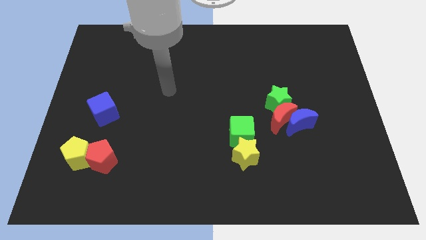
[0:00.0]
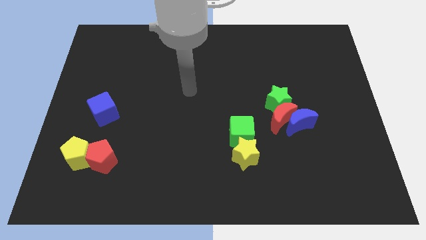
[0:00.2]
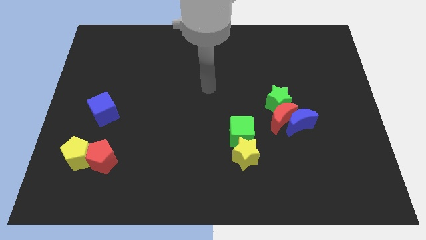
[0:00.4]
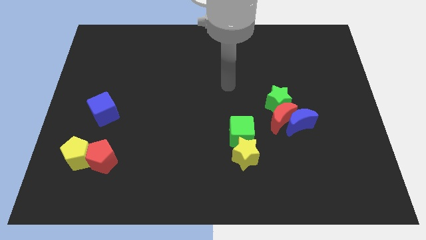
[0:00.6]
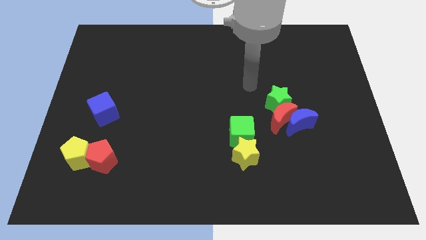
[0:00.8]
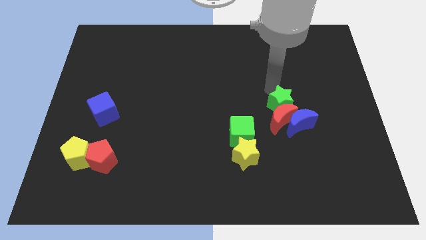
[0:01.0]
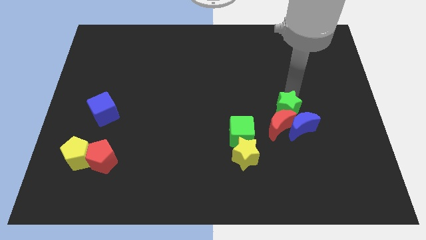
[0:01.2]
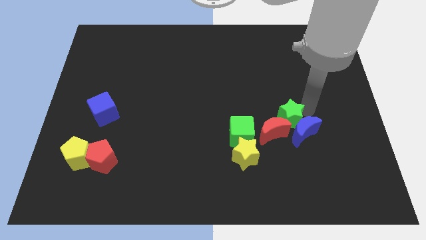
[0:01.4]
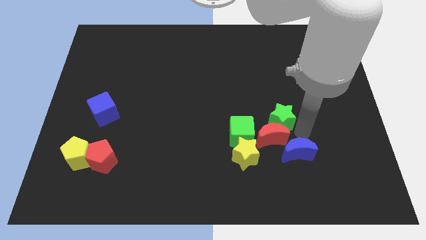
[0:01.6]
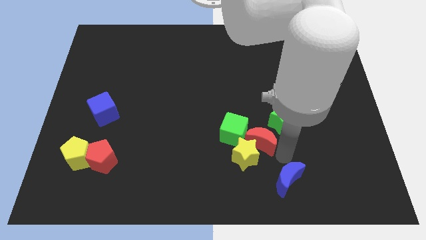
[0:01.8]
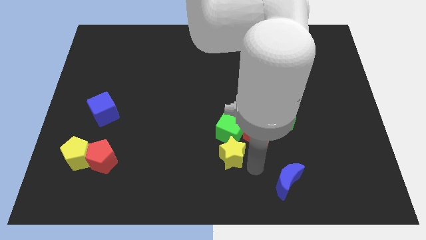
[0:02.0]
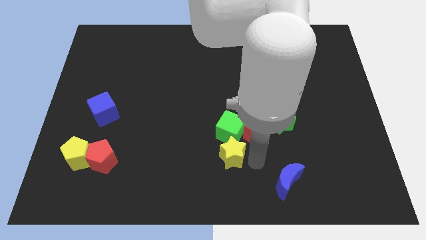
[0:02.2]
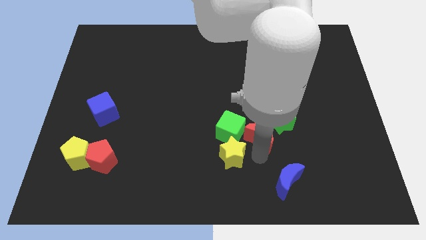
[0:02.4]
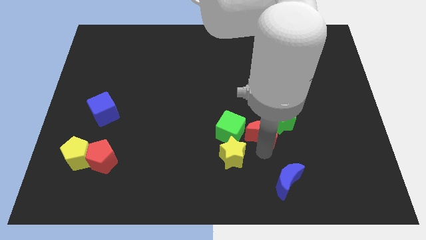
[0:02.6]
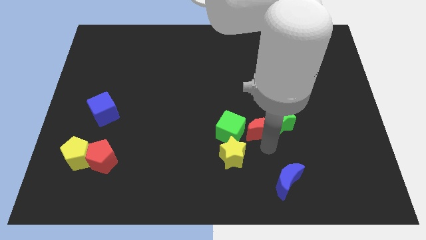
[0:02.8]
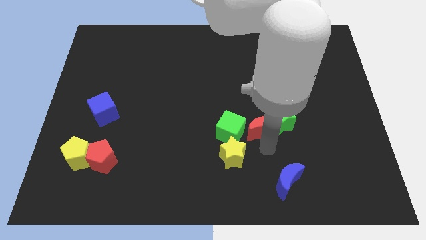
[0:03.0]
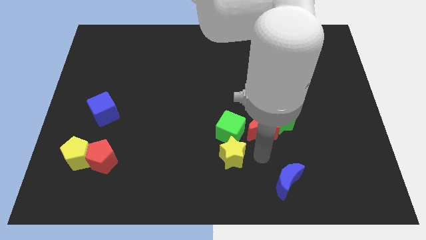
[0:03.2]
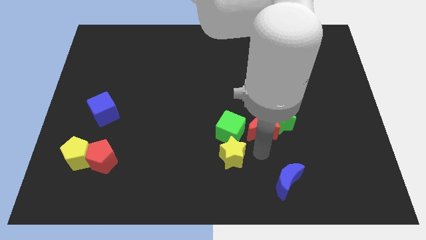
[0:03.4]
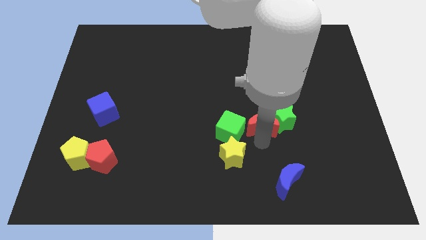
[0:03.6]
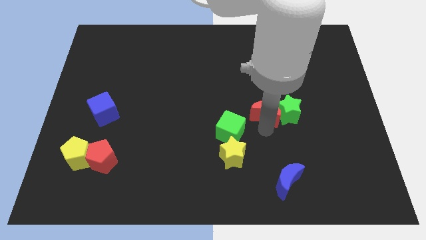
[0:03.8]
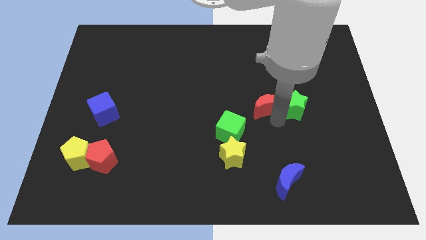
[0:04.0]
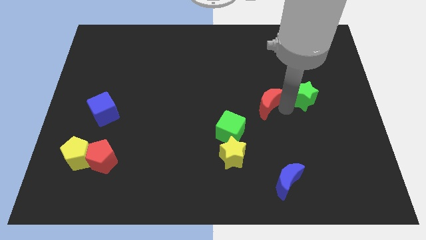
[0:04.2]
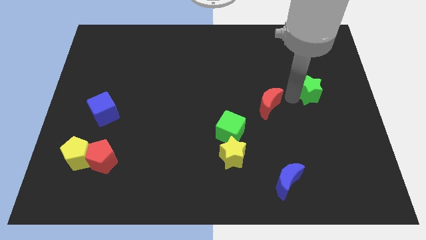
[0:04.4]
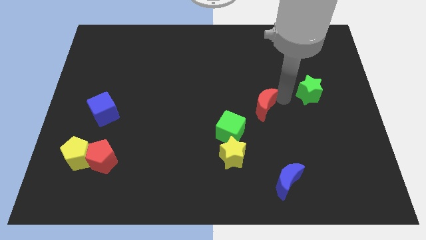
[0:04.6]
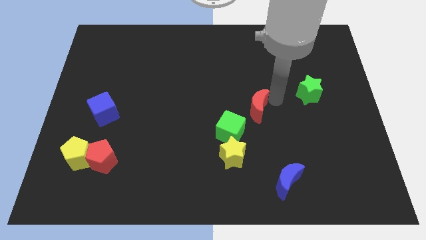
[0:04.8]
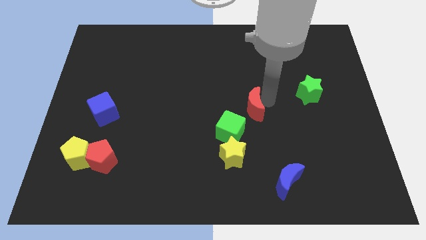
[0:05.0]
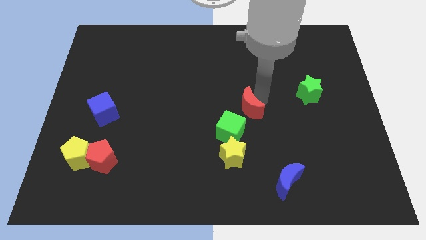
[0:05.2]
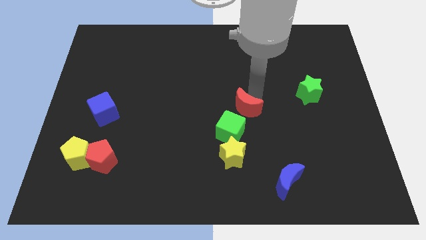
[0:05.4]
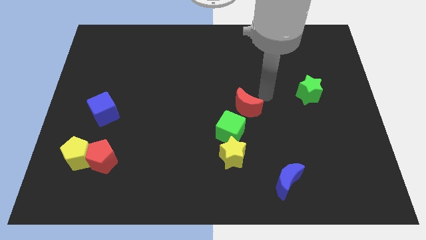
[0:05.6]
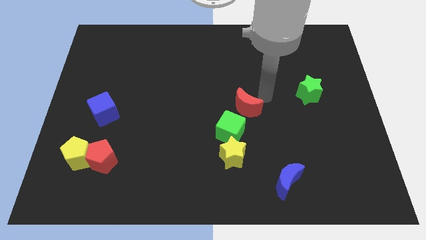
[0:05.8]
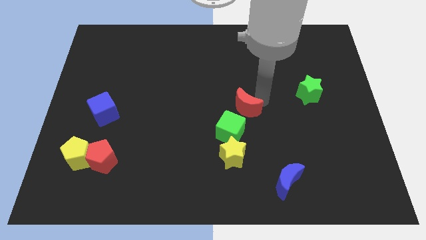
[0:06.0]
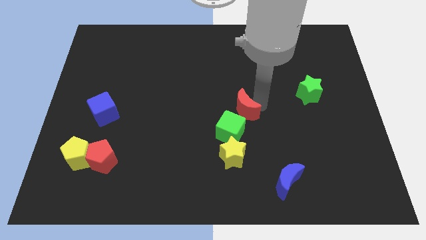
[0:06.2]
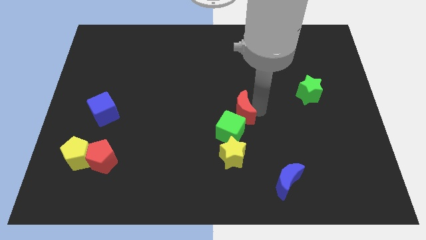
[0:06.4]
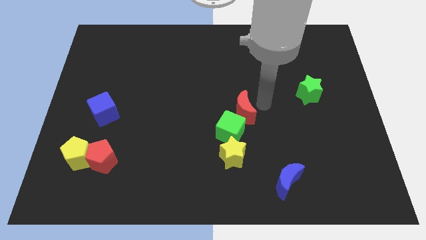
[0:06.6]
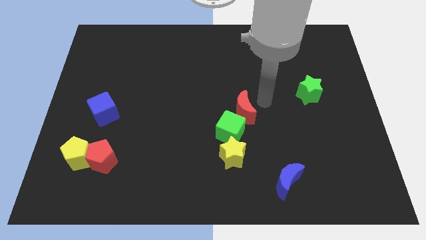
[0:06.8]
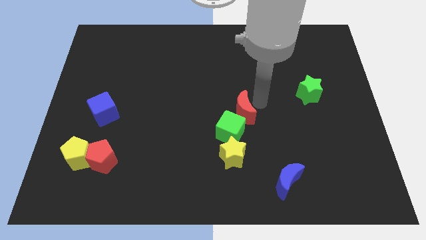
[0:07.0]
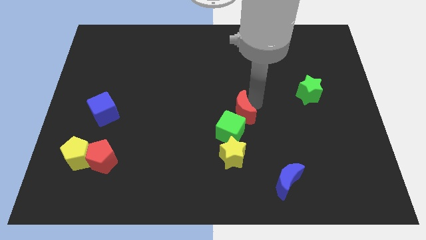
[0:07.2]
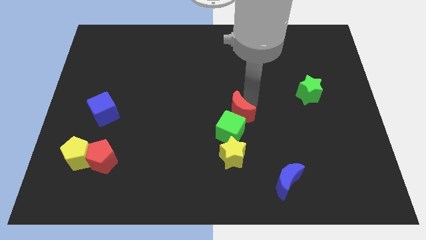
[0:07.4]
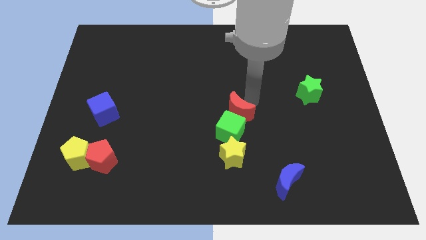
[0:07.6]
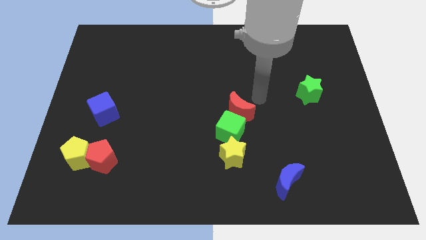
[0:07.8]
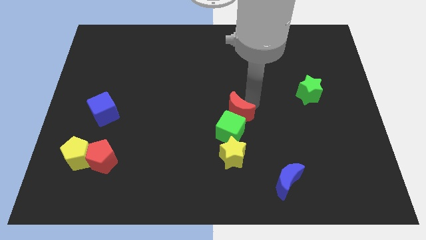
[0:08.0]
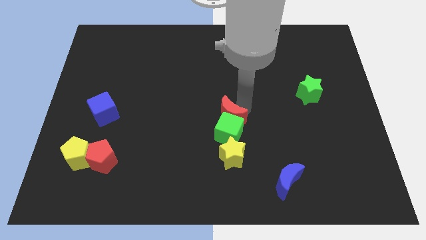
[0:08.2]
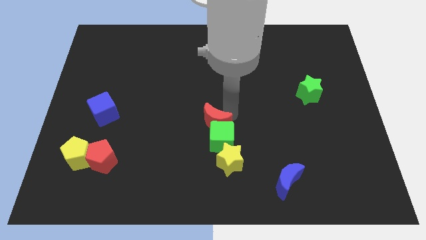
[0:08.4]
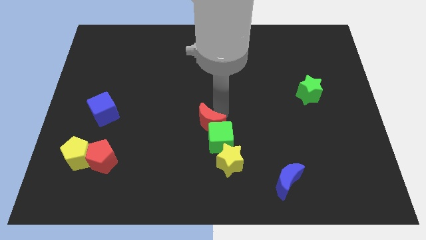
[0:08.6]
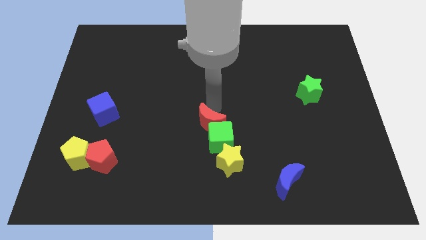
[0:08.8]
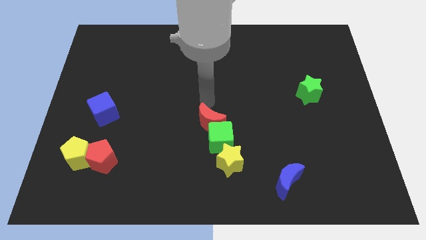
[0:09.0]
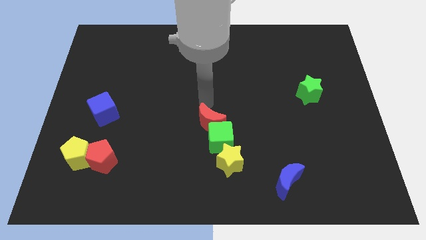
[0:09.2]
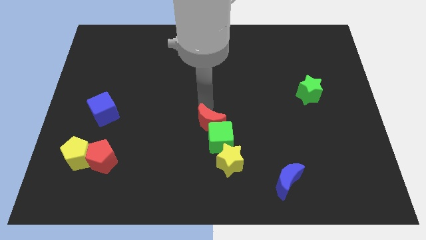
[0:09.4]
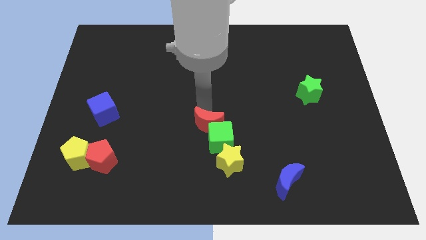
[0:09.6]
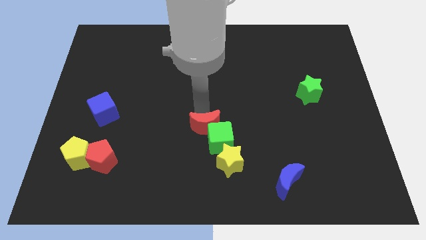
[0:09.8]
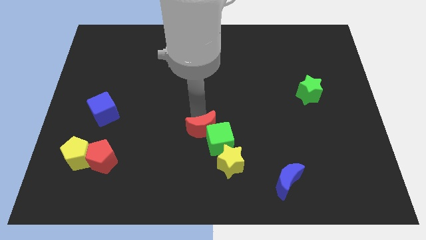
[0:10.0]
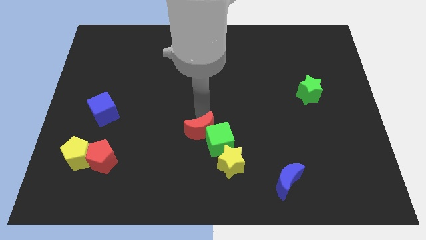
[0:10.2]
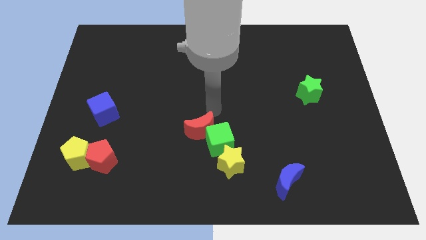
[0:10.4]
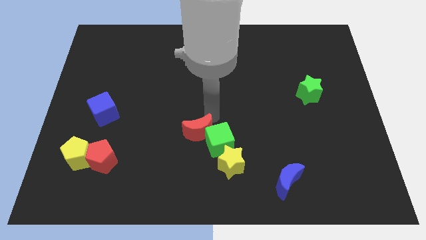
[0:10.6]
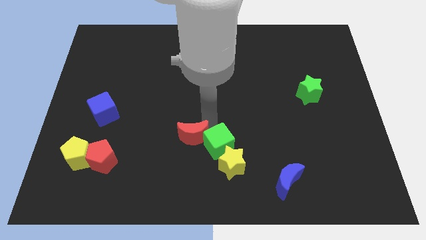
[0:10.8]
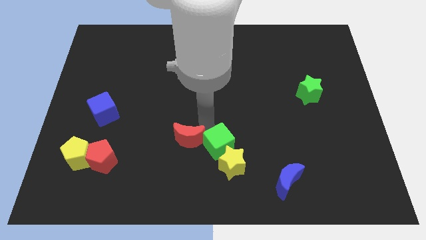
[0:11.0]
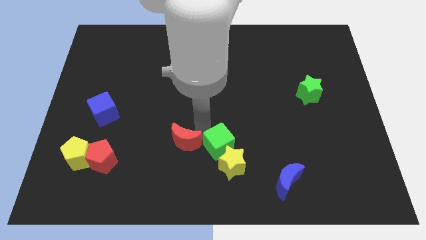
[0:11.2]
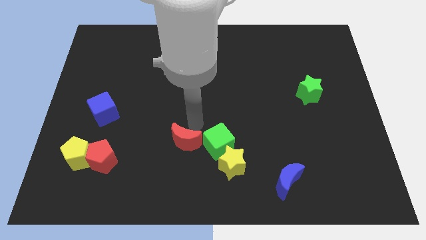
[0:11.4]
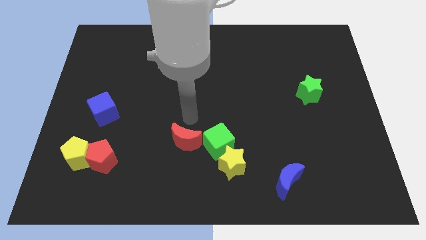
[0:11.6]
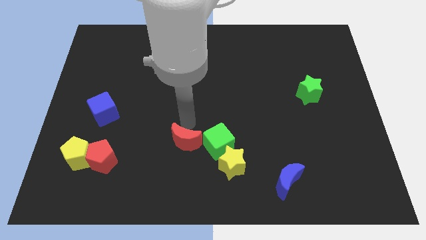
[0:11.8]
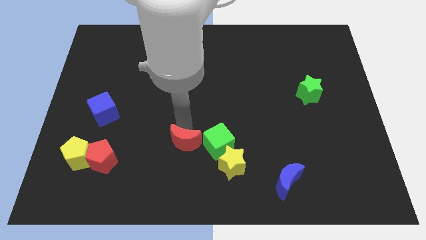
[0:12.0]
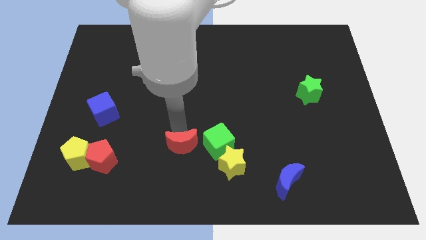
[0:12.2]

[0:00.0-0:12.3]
move the red moon left of the yellow star

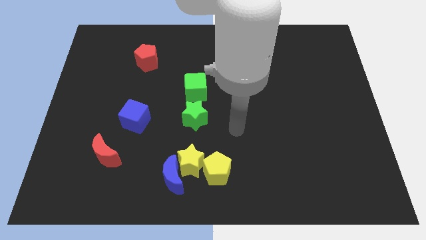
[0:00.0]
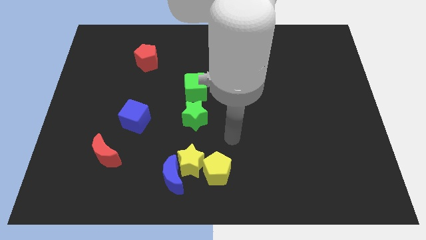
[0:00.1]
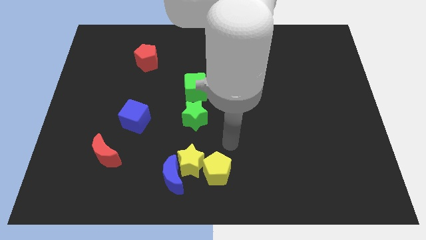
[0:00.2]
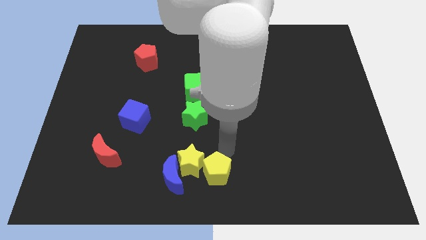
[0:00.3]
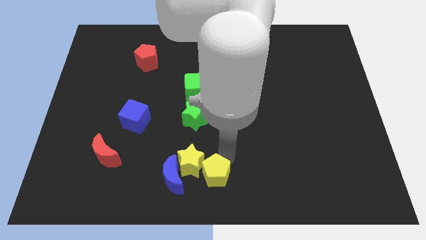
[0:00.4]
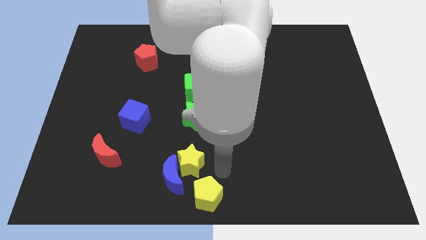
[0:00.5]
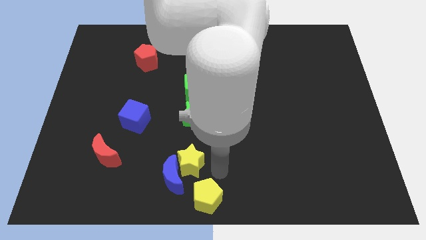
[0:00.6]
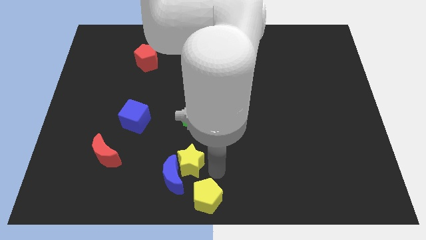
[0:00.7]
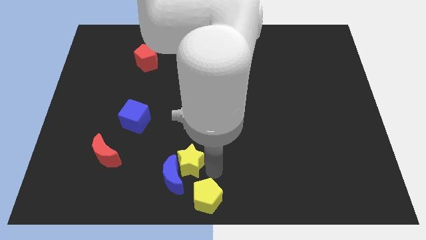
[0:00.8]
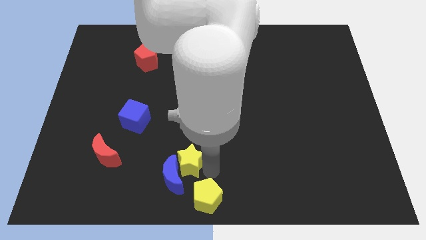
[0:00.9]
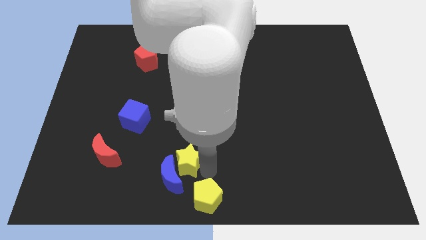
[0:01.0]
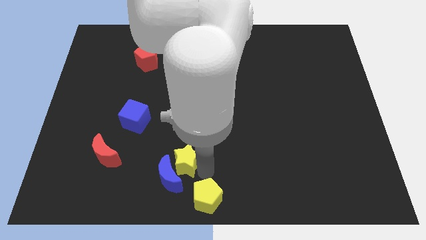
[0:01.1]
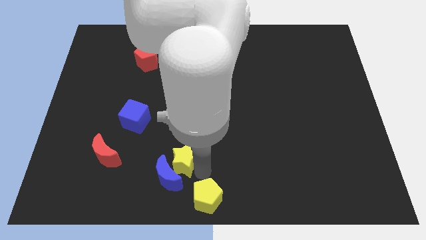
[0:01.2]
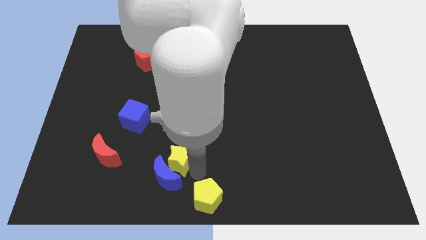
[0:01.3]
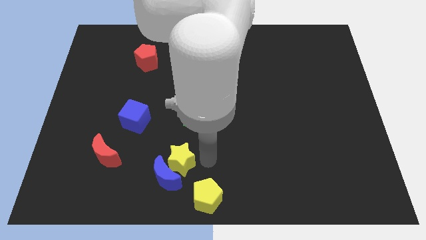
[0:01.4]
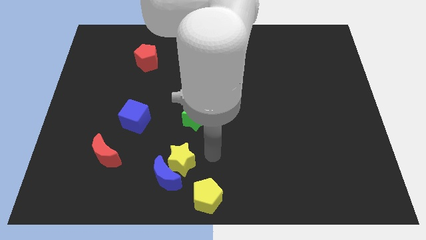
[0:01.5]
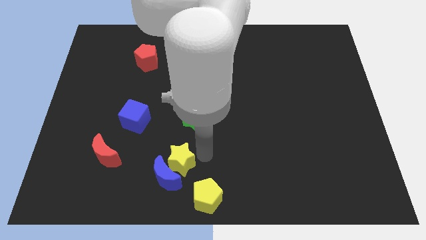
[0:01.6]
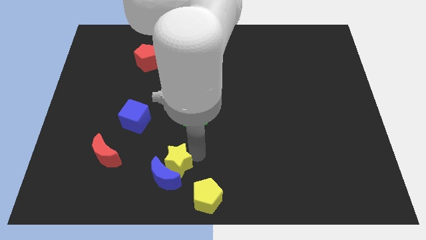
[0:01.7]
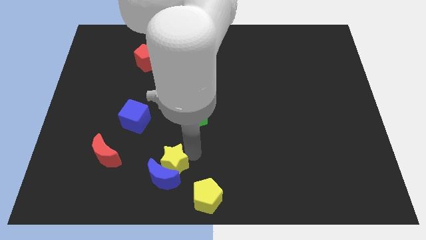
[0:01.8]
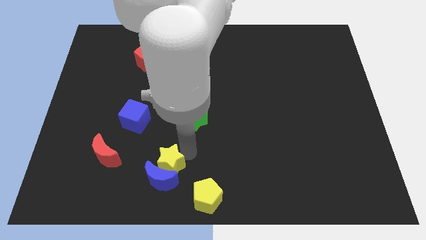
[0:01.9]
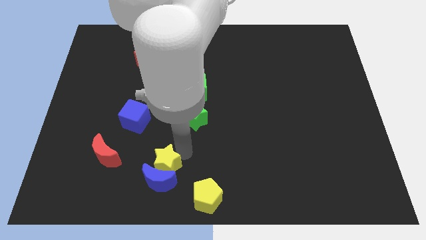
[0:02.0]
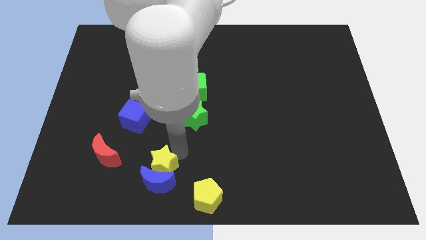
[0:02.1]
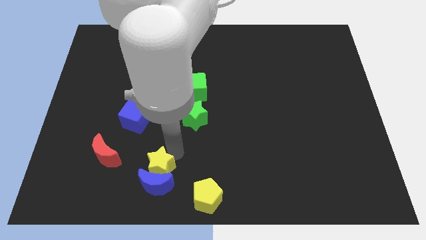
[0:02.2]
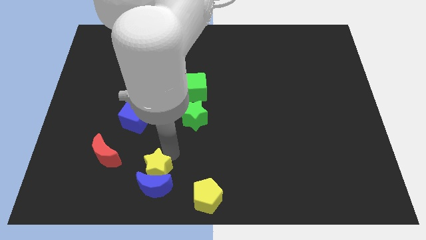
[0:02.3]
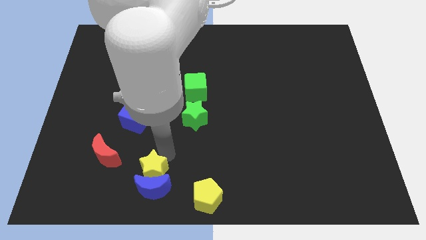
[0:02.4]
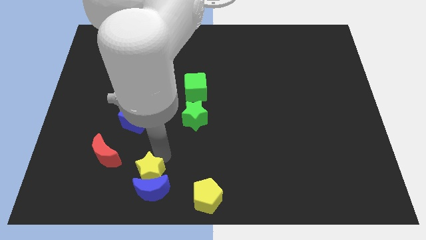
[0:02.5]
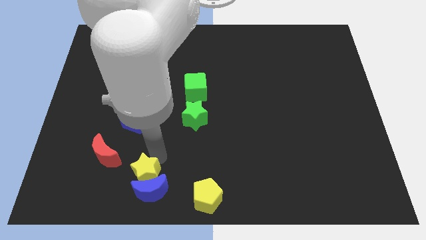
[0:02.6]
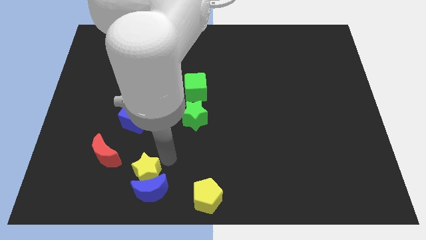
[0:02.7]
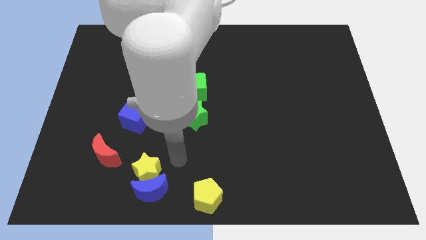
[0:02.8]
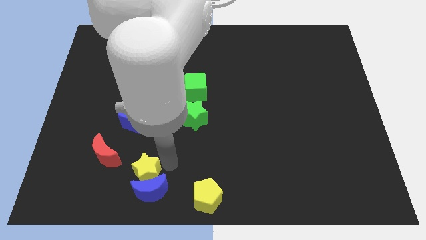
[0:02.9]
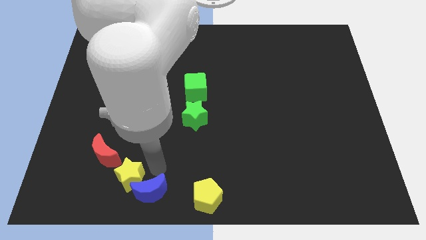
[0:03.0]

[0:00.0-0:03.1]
slide the yellow star to the left of the blue moon
